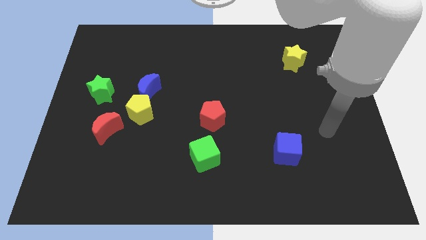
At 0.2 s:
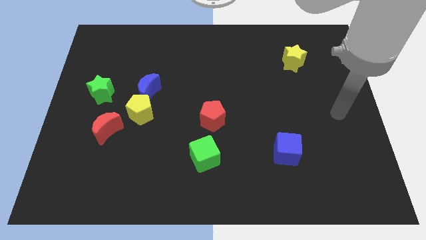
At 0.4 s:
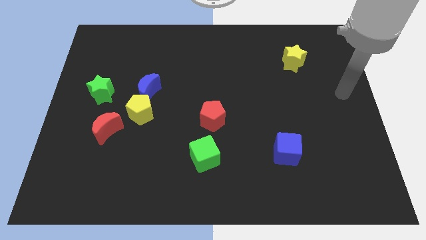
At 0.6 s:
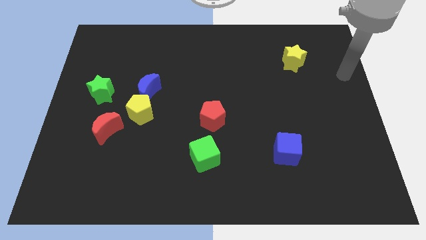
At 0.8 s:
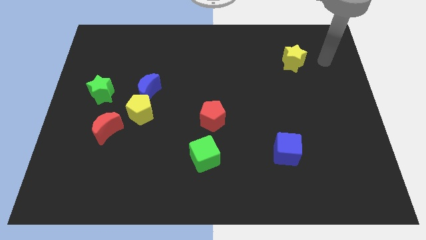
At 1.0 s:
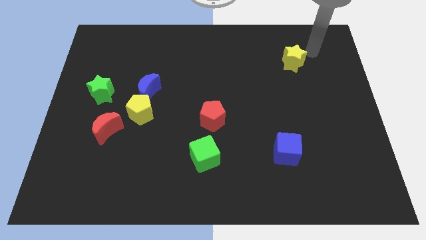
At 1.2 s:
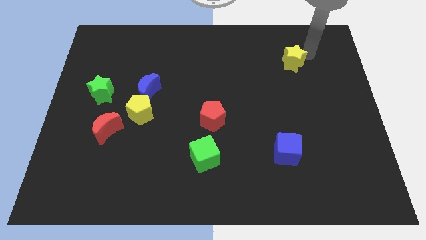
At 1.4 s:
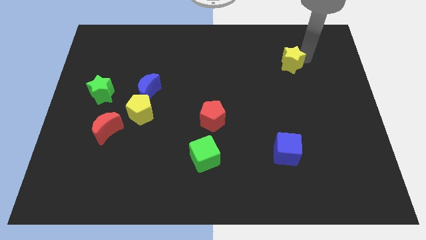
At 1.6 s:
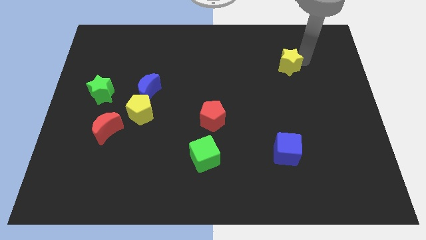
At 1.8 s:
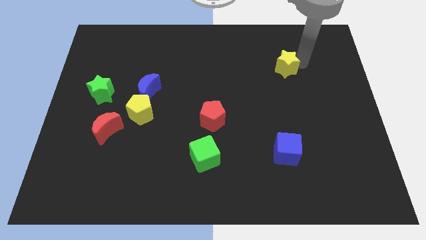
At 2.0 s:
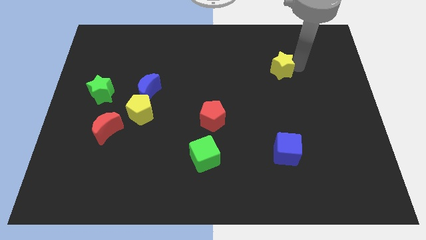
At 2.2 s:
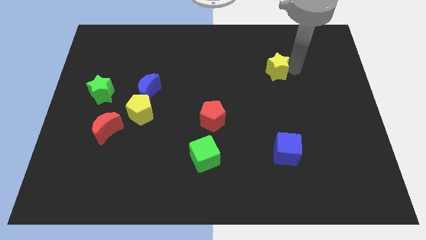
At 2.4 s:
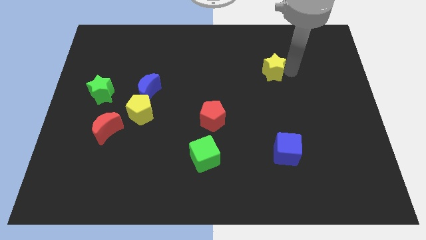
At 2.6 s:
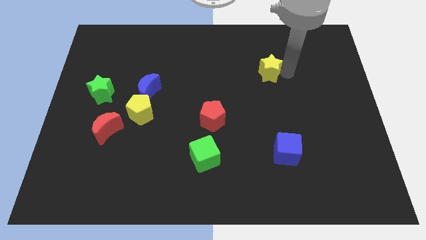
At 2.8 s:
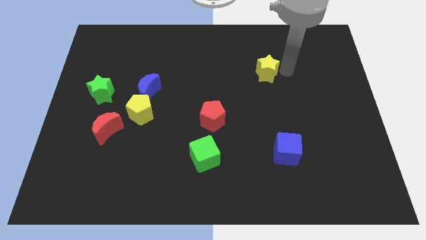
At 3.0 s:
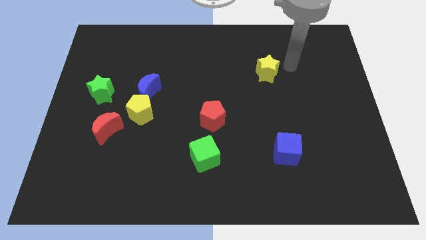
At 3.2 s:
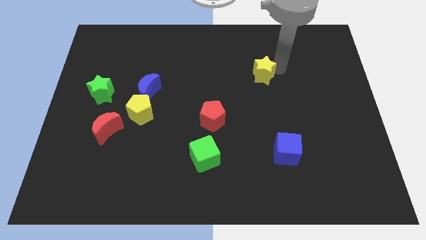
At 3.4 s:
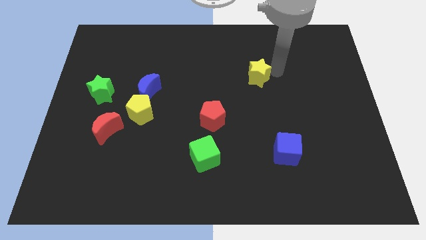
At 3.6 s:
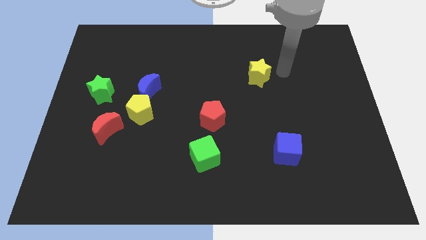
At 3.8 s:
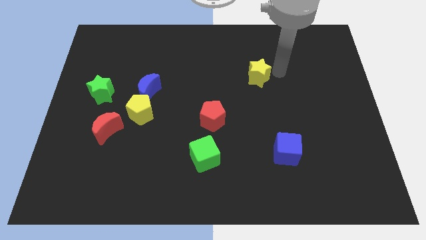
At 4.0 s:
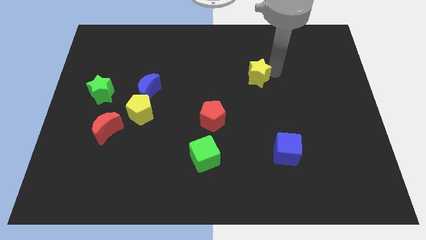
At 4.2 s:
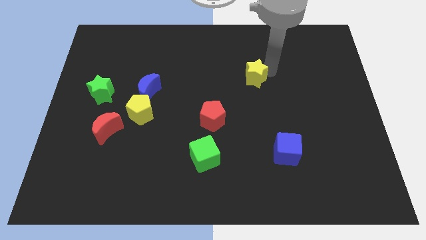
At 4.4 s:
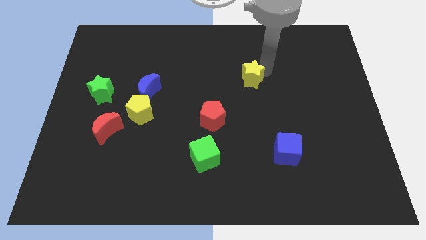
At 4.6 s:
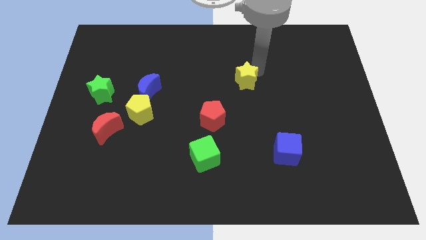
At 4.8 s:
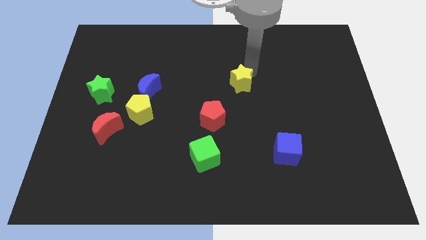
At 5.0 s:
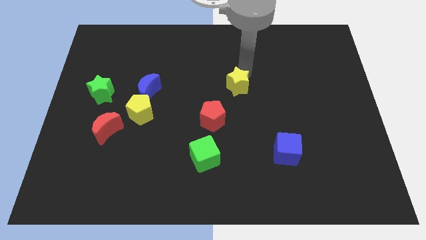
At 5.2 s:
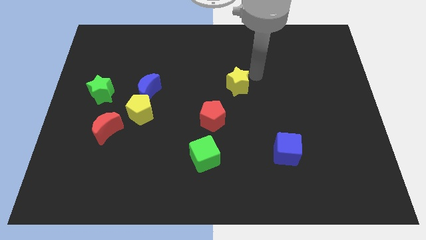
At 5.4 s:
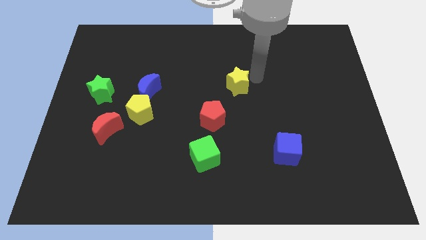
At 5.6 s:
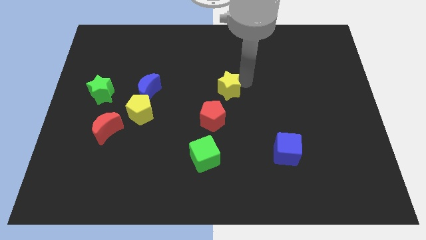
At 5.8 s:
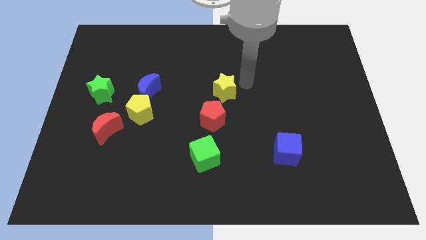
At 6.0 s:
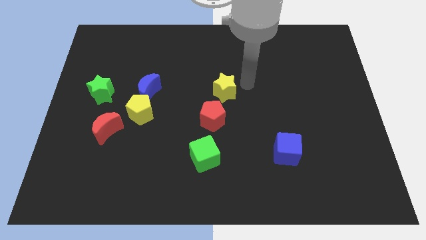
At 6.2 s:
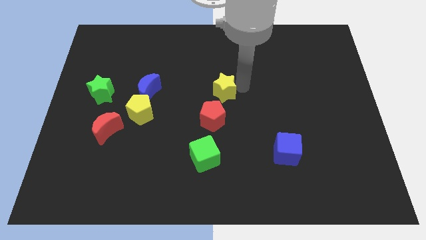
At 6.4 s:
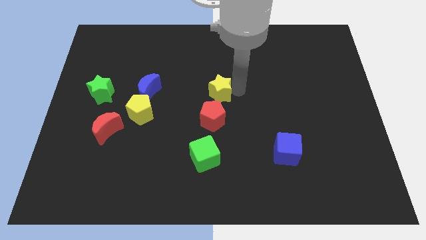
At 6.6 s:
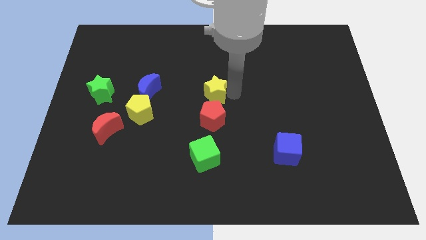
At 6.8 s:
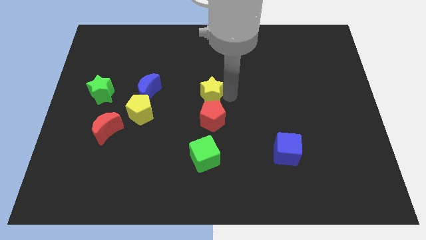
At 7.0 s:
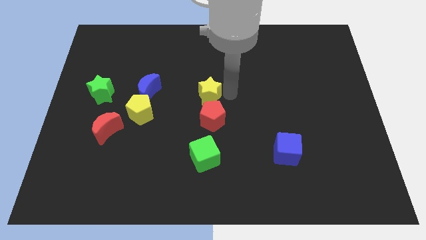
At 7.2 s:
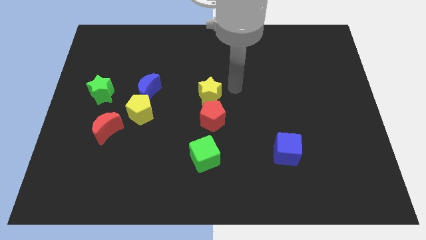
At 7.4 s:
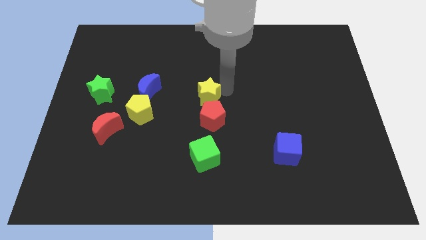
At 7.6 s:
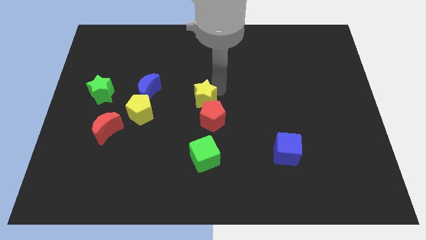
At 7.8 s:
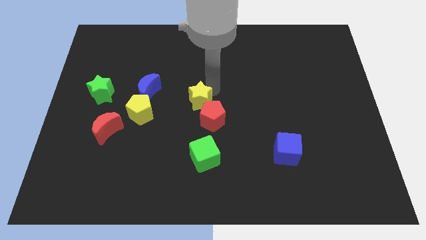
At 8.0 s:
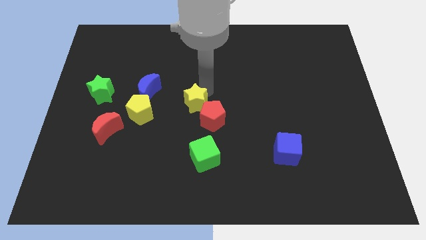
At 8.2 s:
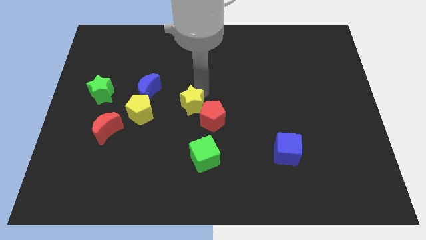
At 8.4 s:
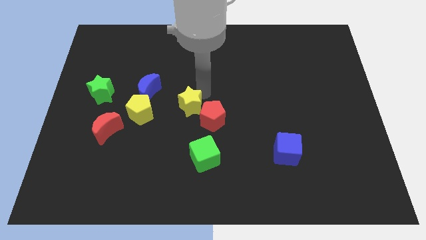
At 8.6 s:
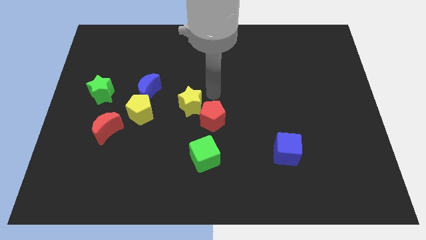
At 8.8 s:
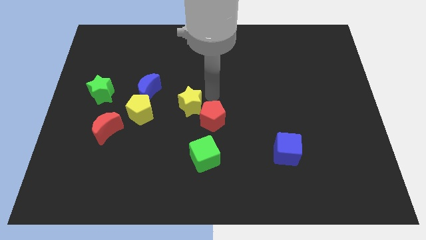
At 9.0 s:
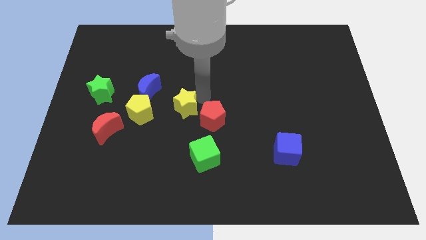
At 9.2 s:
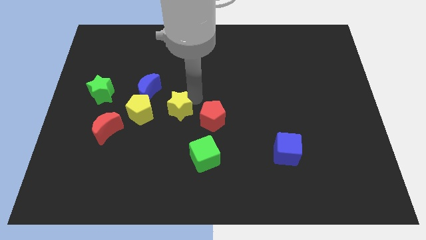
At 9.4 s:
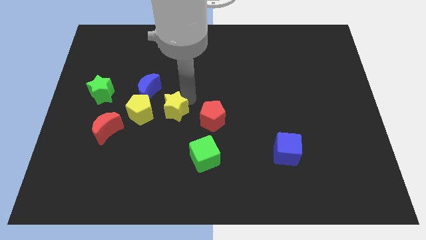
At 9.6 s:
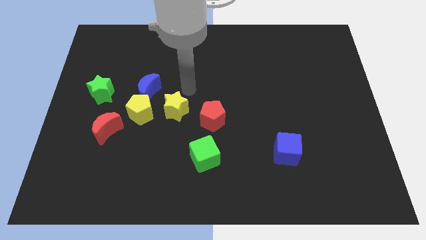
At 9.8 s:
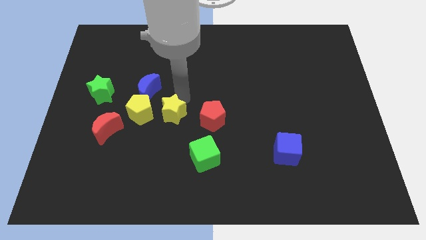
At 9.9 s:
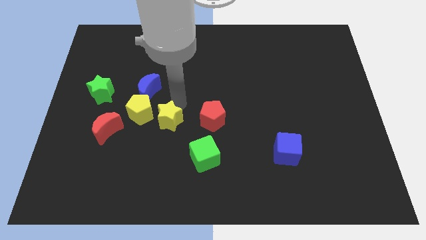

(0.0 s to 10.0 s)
slide the yellow star to the bottom right side of the yellow pentagon

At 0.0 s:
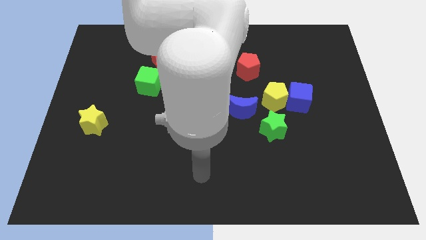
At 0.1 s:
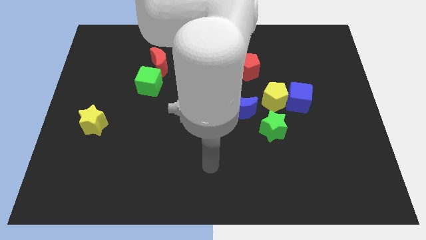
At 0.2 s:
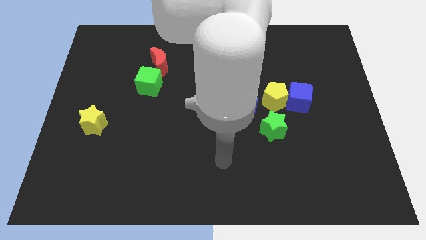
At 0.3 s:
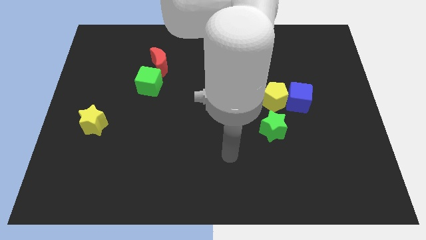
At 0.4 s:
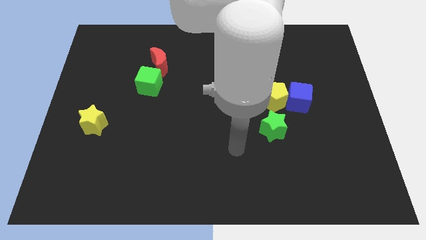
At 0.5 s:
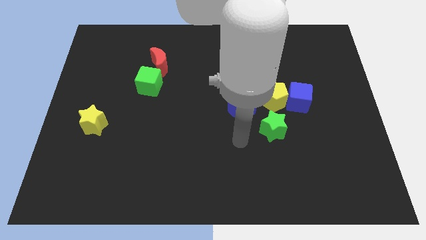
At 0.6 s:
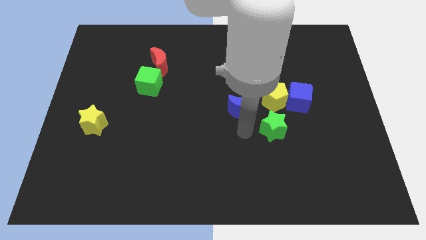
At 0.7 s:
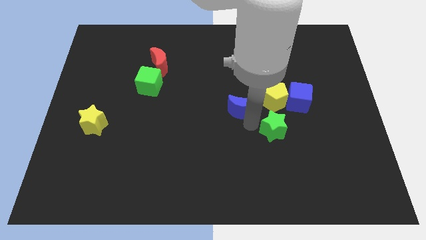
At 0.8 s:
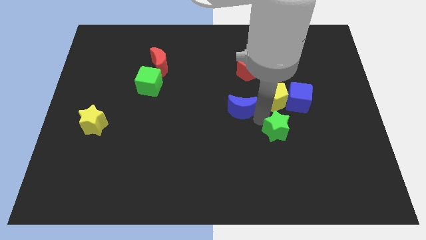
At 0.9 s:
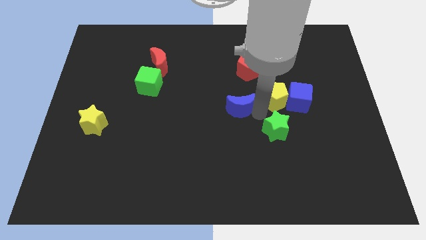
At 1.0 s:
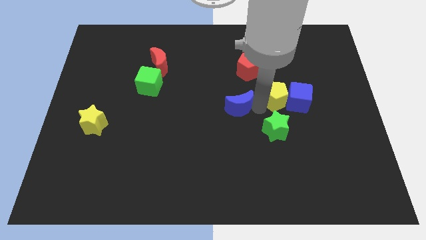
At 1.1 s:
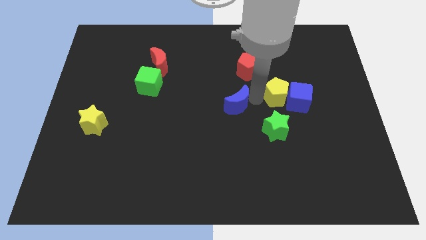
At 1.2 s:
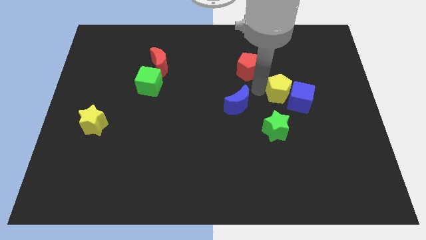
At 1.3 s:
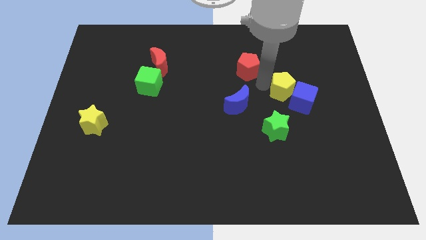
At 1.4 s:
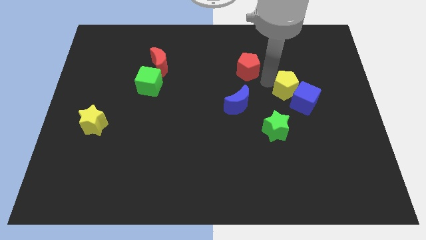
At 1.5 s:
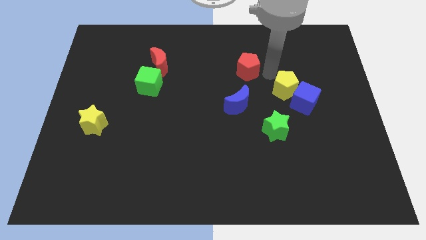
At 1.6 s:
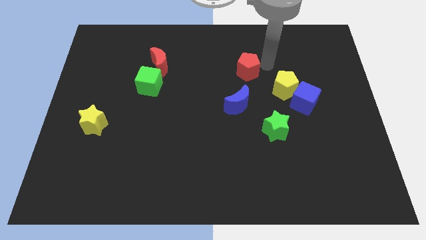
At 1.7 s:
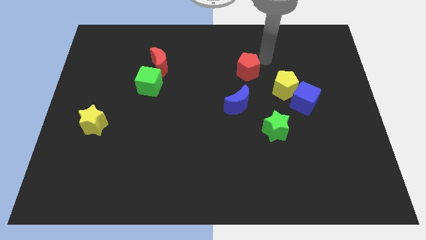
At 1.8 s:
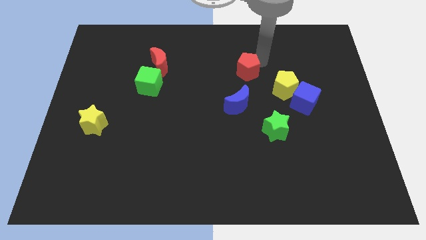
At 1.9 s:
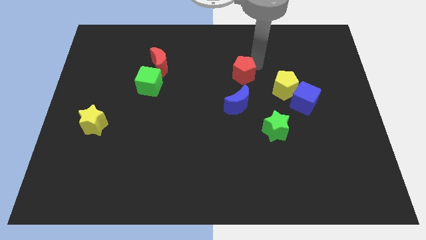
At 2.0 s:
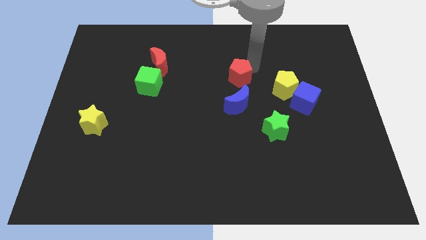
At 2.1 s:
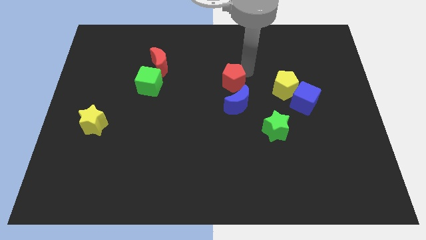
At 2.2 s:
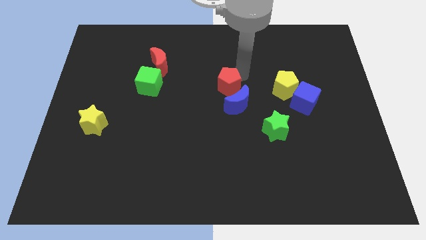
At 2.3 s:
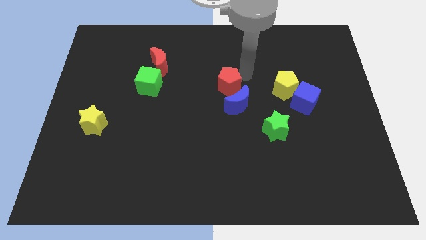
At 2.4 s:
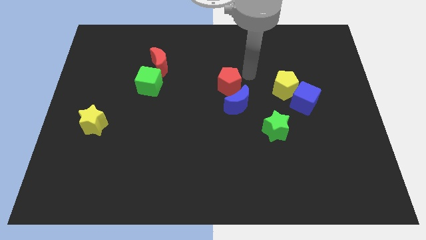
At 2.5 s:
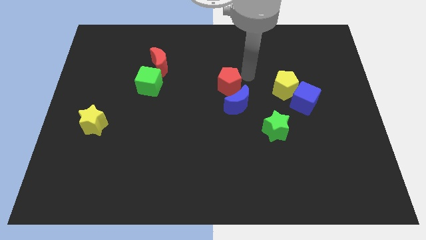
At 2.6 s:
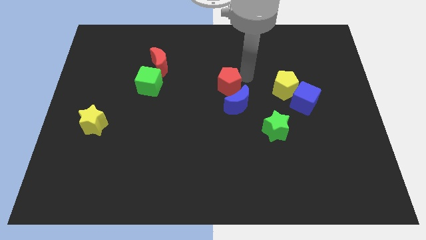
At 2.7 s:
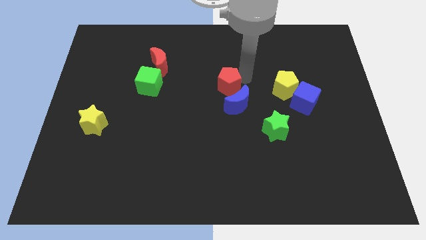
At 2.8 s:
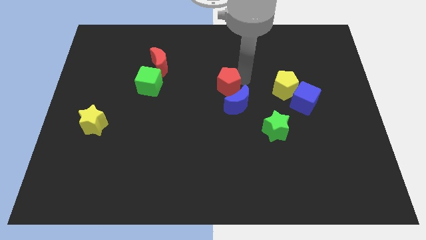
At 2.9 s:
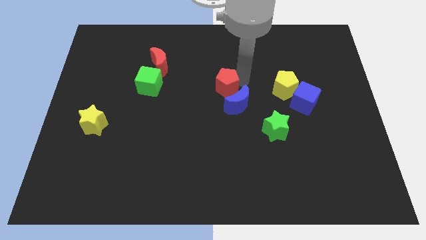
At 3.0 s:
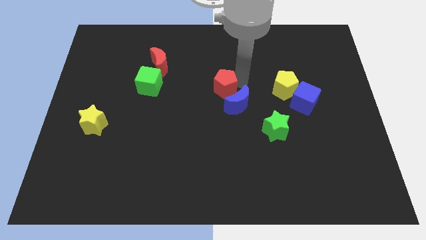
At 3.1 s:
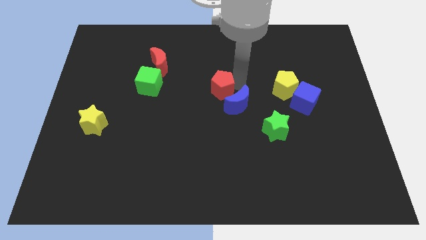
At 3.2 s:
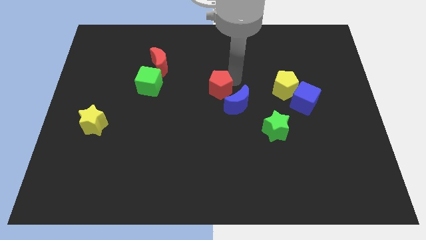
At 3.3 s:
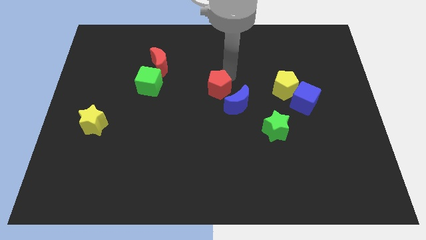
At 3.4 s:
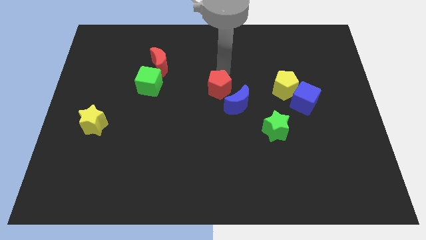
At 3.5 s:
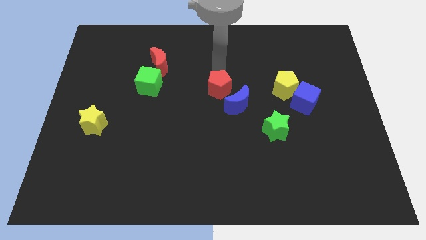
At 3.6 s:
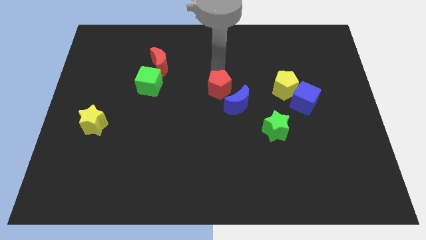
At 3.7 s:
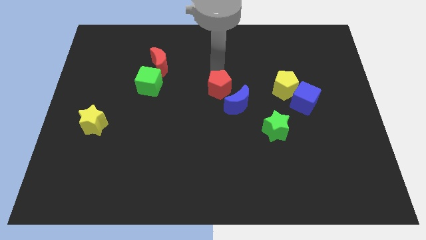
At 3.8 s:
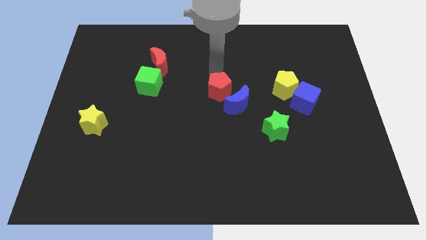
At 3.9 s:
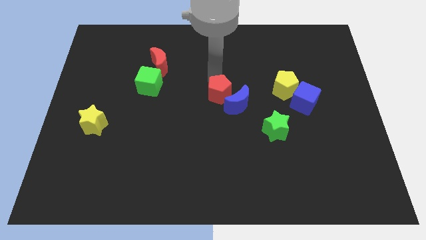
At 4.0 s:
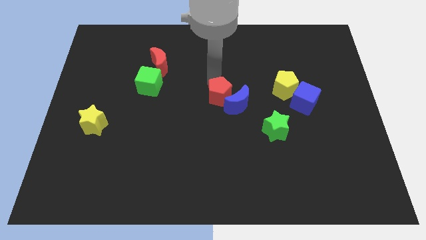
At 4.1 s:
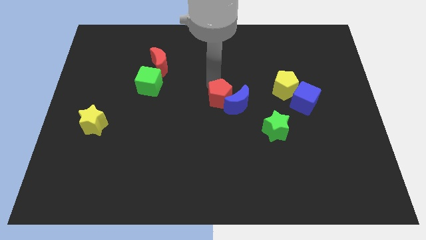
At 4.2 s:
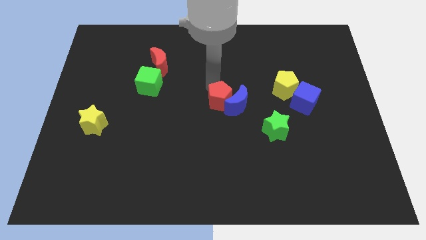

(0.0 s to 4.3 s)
move the red pentagon to the bottom left side of the blue moon
